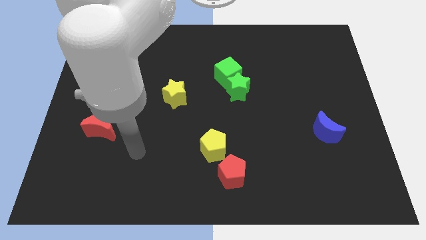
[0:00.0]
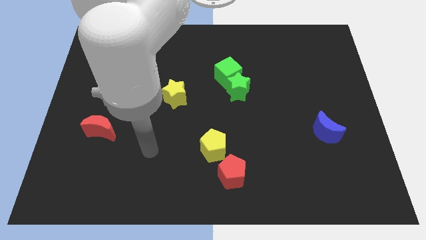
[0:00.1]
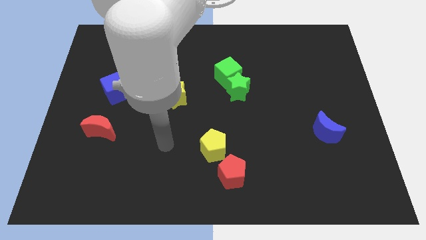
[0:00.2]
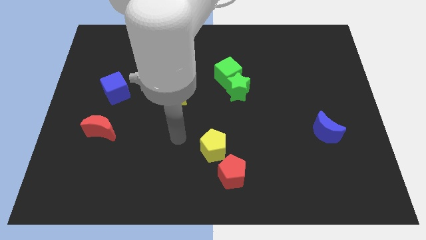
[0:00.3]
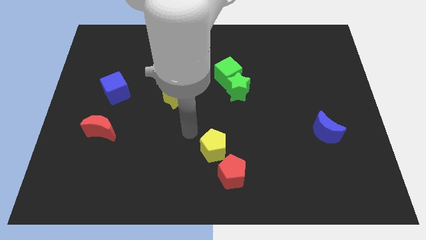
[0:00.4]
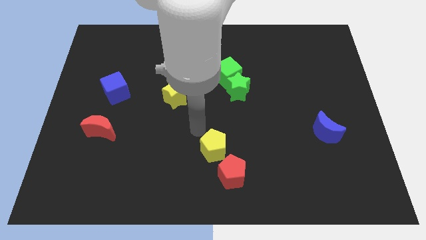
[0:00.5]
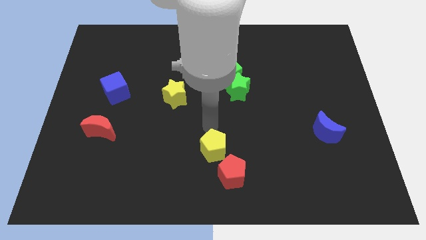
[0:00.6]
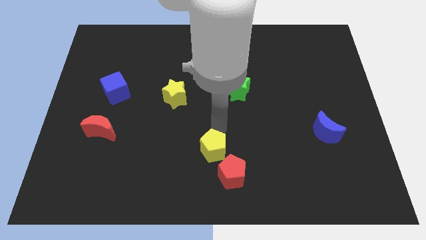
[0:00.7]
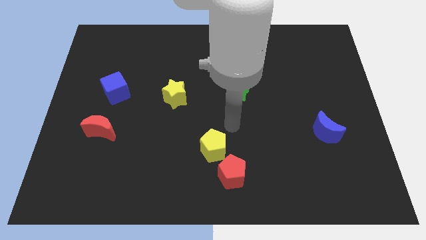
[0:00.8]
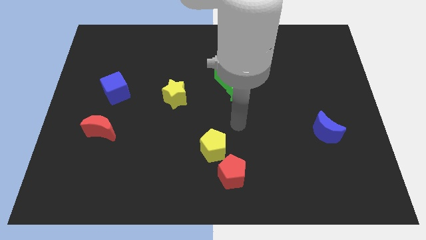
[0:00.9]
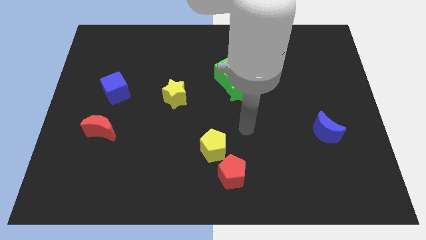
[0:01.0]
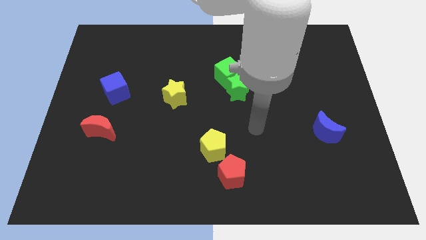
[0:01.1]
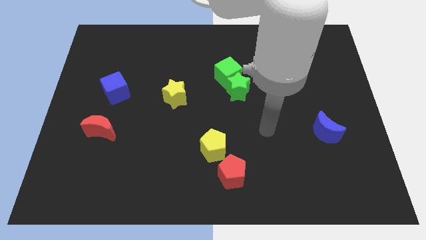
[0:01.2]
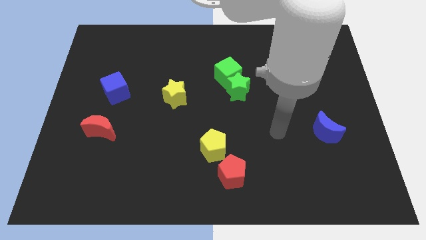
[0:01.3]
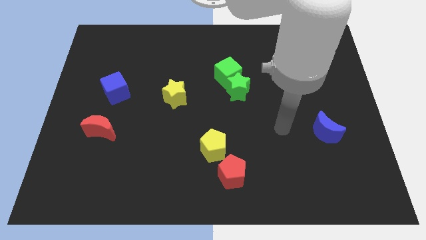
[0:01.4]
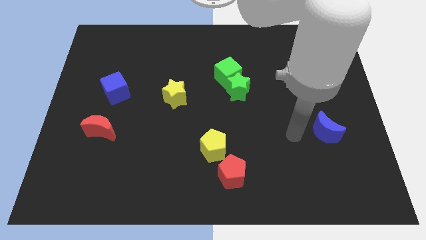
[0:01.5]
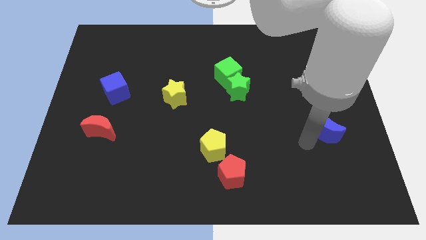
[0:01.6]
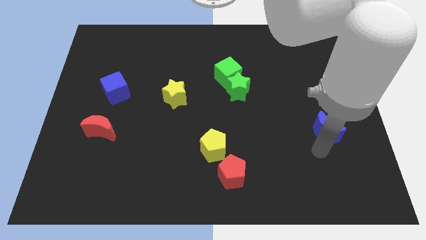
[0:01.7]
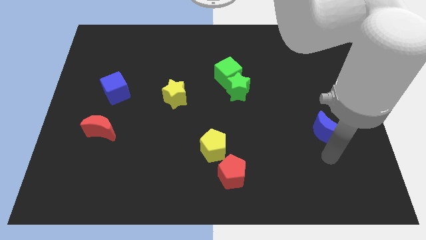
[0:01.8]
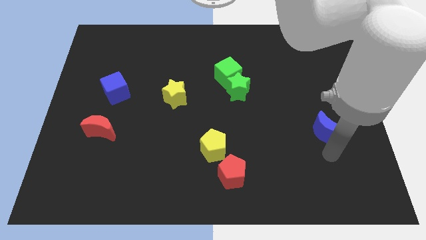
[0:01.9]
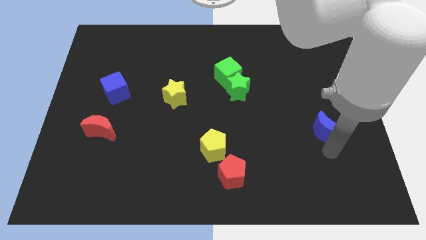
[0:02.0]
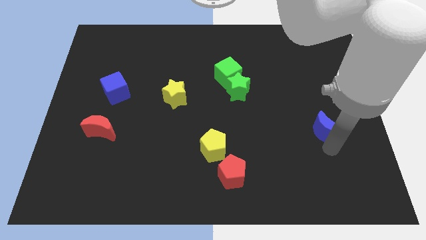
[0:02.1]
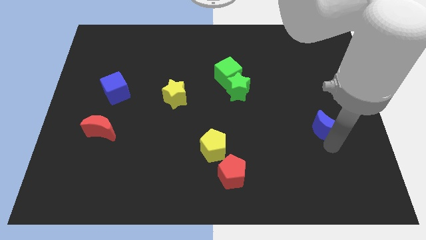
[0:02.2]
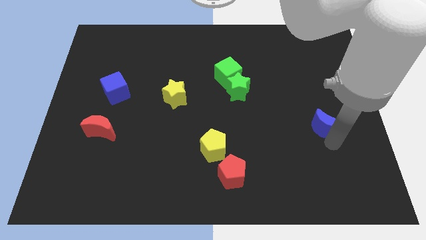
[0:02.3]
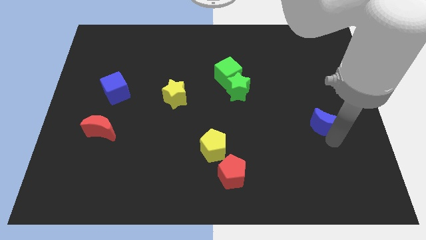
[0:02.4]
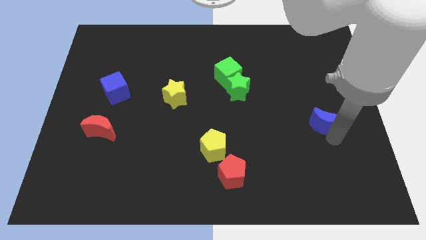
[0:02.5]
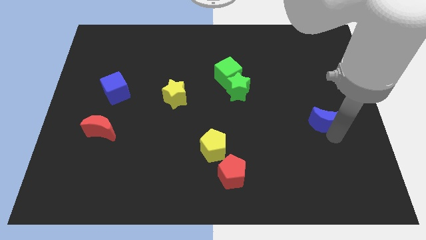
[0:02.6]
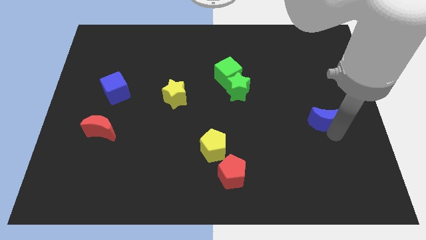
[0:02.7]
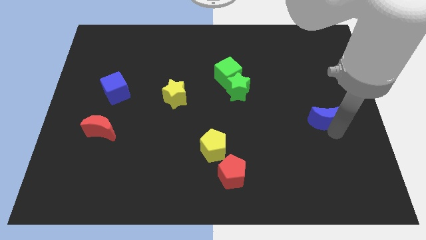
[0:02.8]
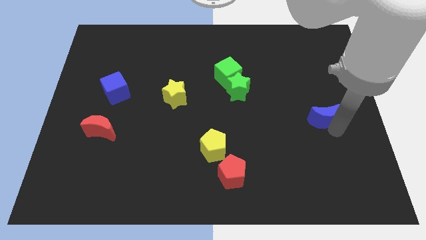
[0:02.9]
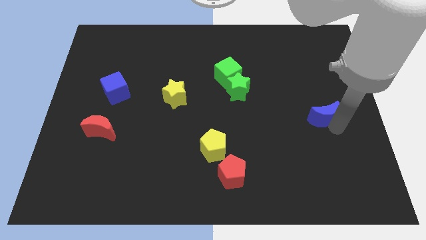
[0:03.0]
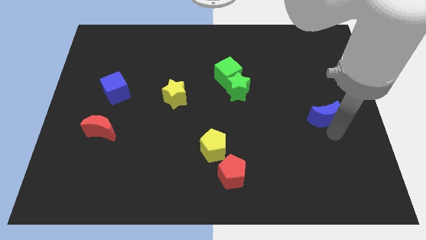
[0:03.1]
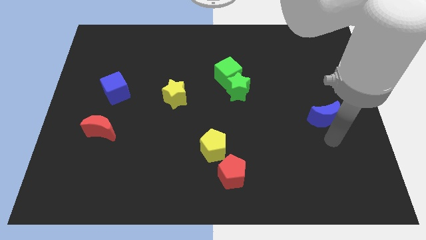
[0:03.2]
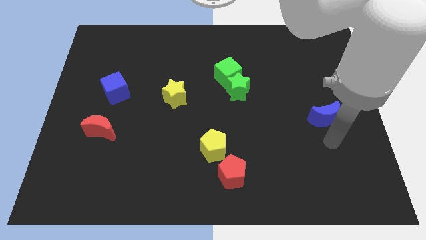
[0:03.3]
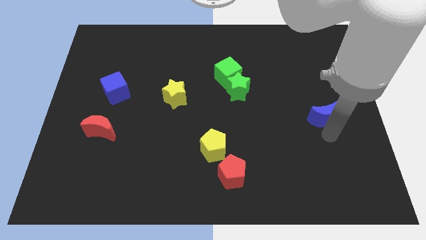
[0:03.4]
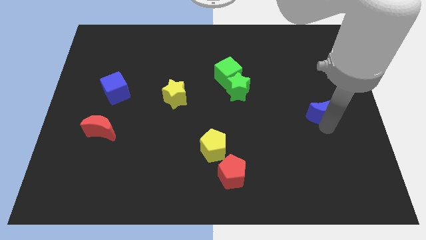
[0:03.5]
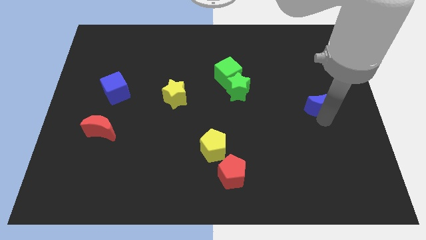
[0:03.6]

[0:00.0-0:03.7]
move the blue moon up a bit

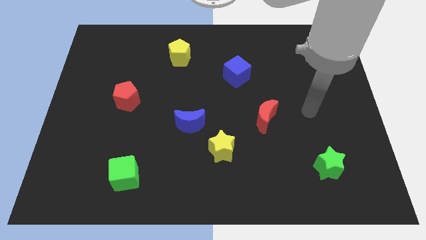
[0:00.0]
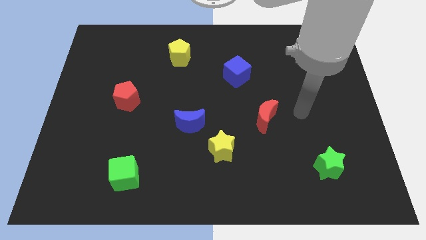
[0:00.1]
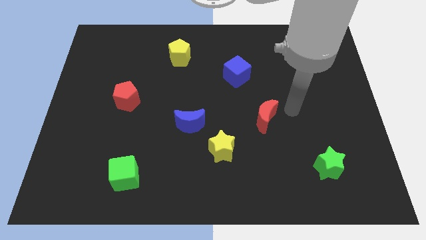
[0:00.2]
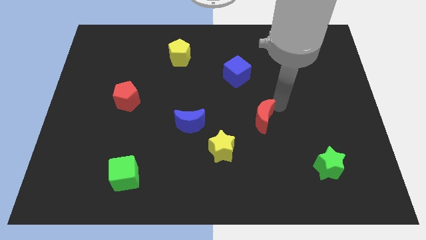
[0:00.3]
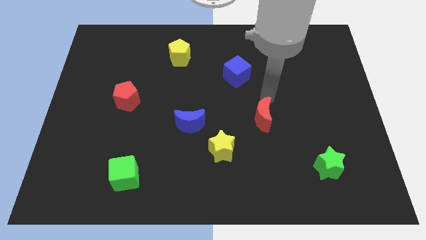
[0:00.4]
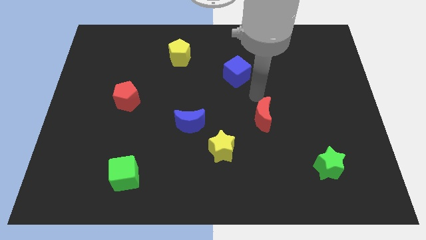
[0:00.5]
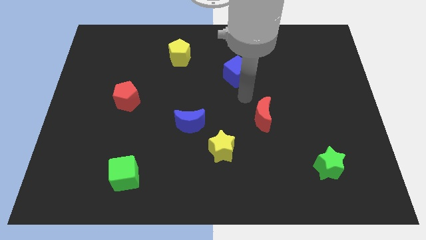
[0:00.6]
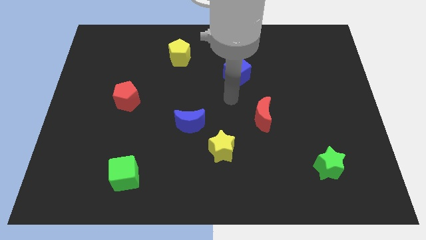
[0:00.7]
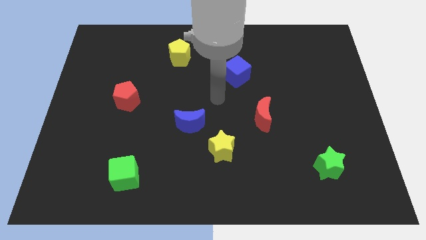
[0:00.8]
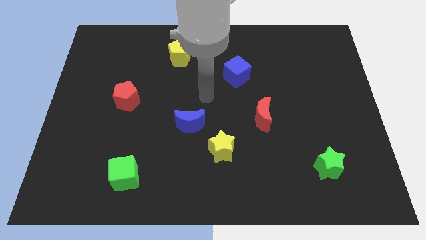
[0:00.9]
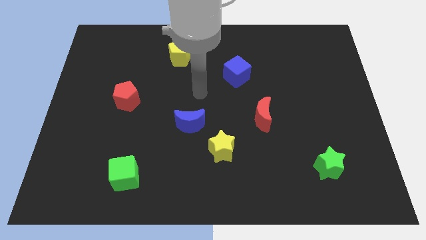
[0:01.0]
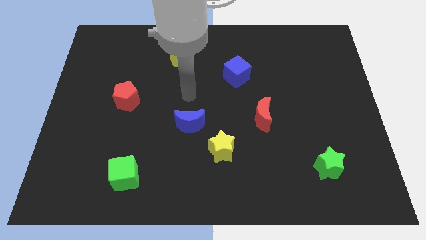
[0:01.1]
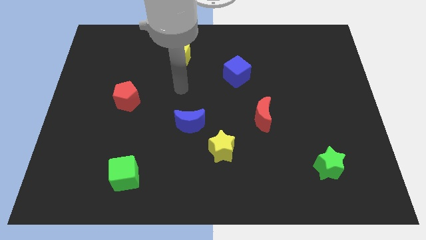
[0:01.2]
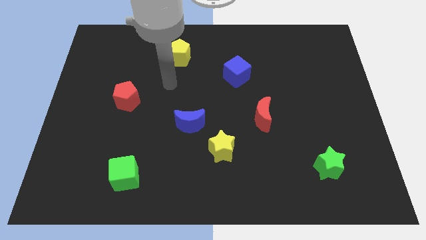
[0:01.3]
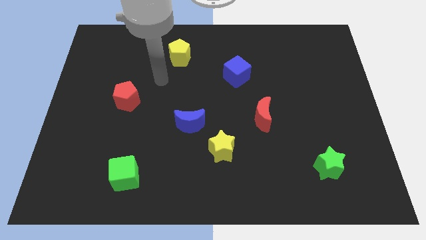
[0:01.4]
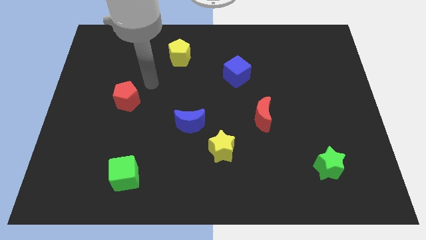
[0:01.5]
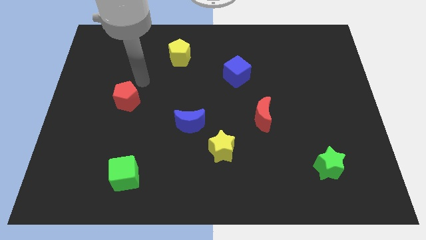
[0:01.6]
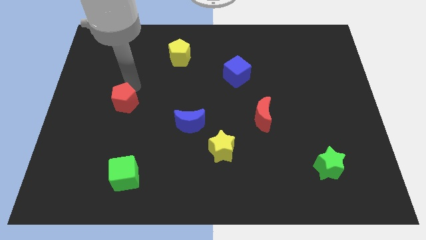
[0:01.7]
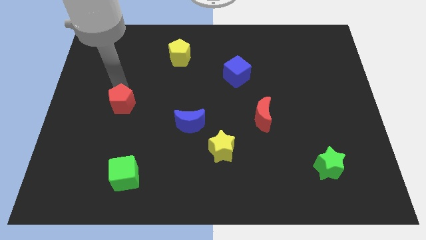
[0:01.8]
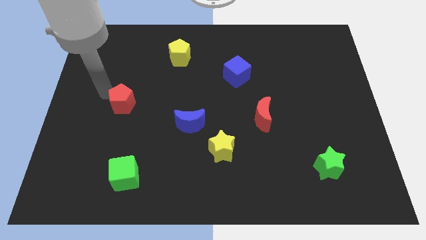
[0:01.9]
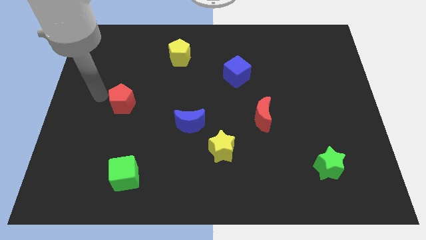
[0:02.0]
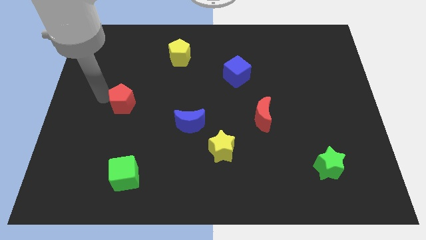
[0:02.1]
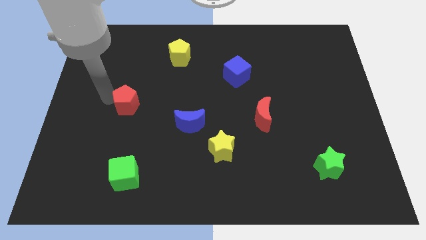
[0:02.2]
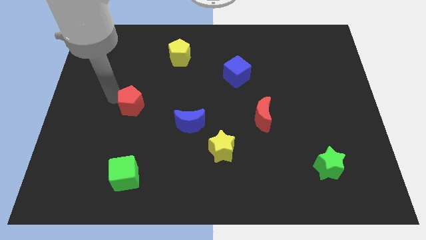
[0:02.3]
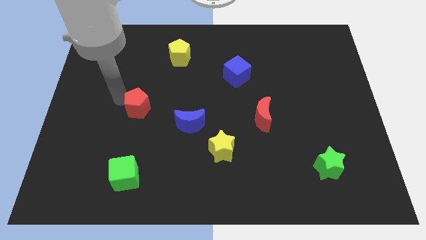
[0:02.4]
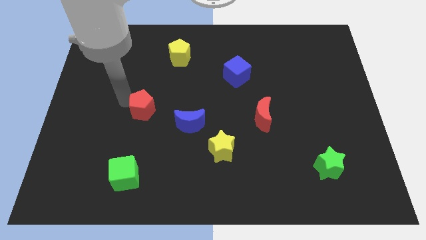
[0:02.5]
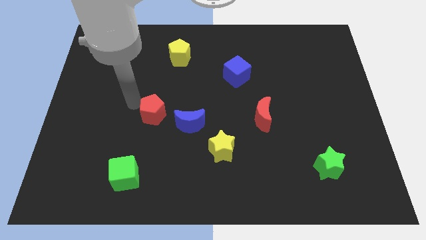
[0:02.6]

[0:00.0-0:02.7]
slide the red pentagon a bit down and right

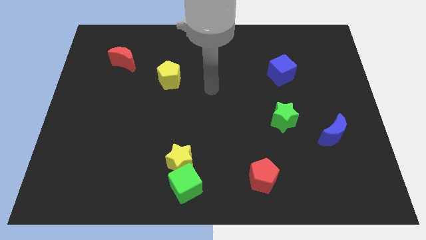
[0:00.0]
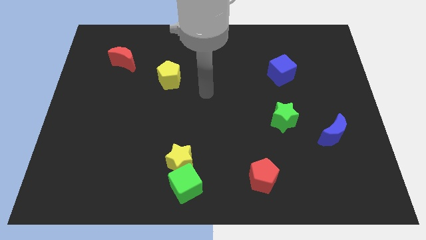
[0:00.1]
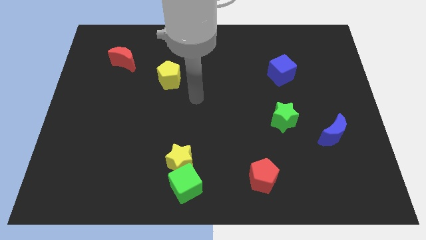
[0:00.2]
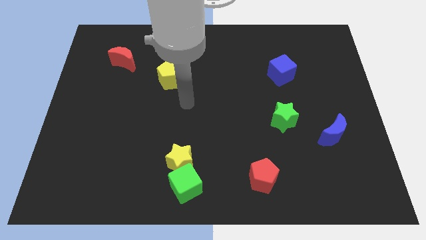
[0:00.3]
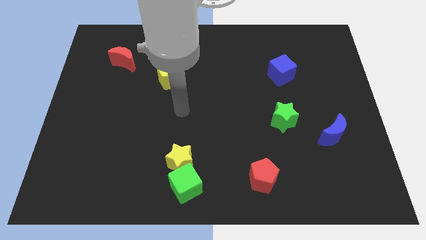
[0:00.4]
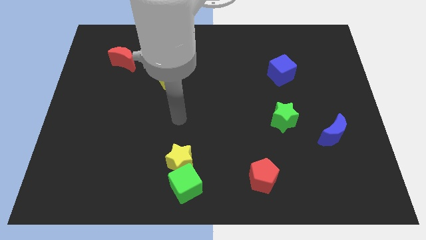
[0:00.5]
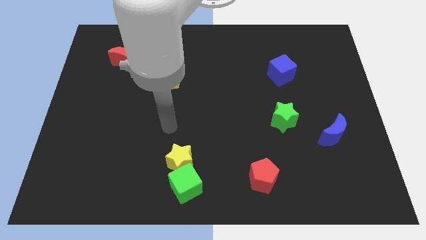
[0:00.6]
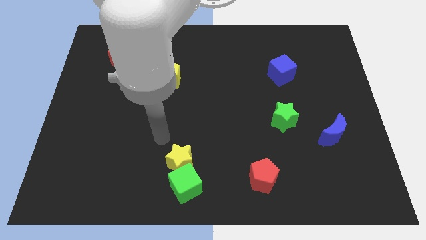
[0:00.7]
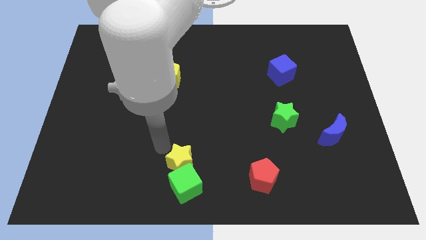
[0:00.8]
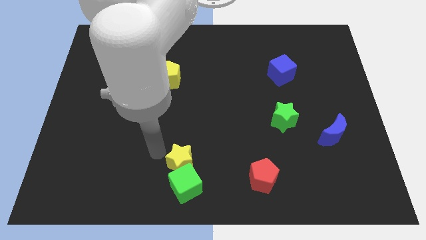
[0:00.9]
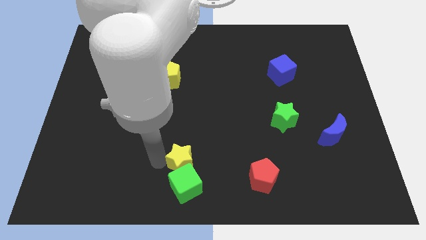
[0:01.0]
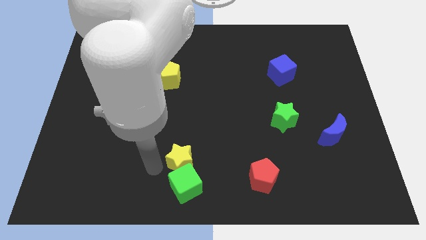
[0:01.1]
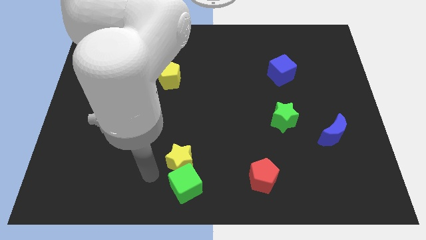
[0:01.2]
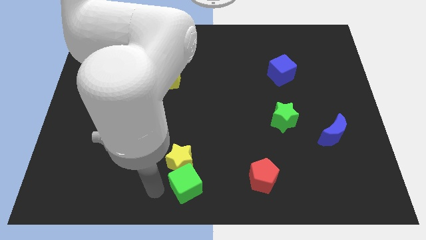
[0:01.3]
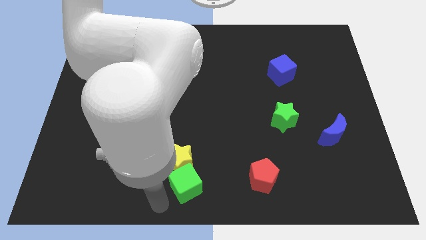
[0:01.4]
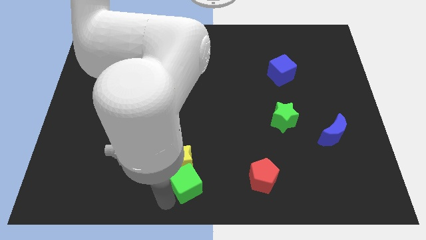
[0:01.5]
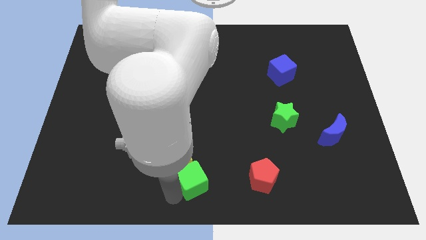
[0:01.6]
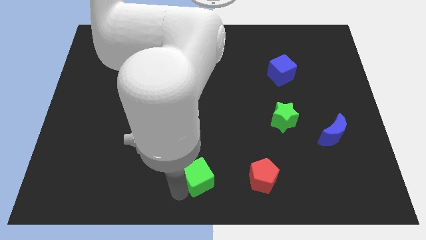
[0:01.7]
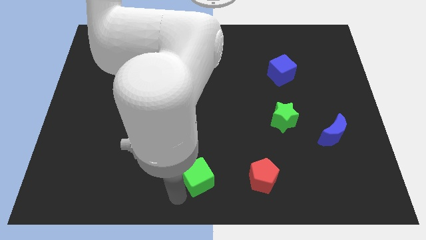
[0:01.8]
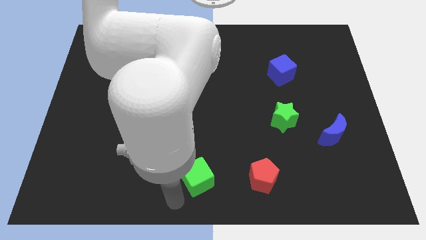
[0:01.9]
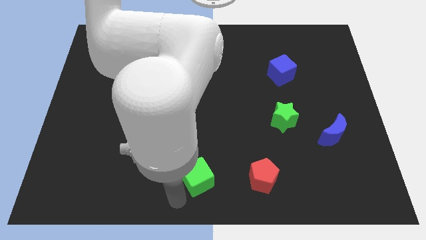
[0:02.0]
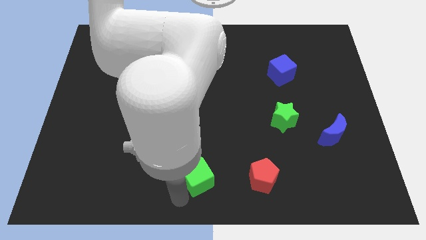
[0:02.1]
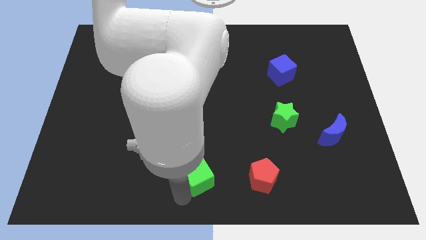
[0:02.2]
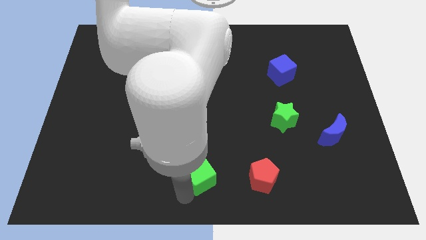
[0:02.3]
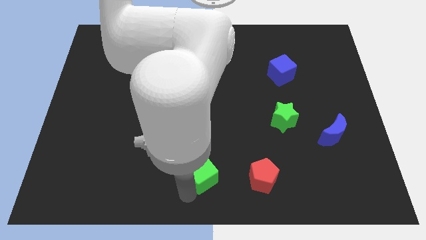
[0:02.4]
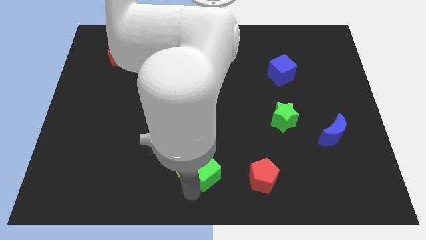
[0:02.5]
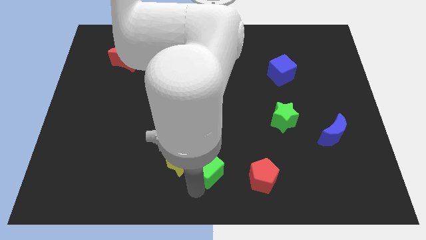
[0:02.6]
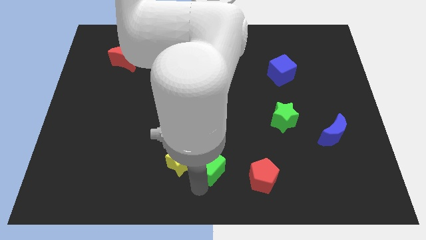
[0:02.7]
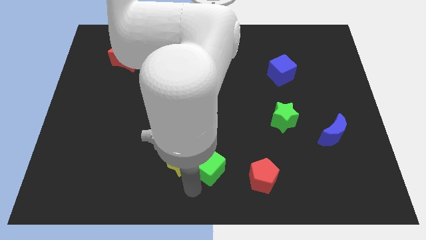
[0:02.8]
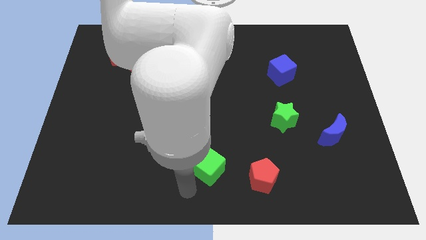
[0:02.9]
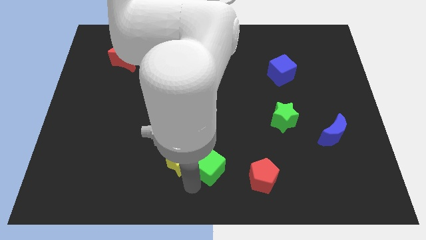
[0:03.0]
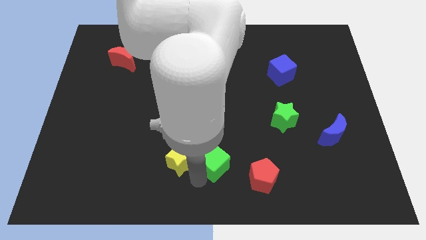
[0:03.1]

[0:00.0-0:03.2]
slightly slide the green cube diagonally upwards and to the right
